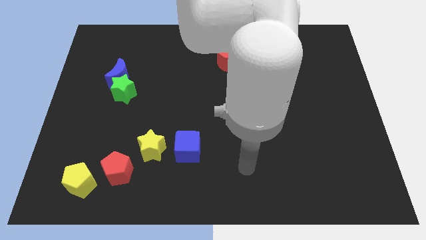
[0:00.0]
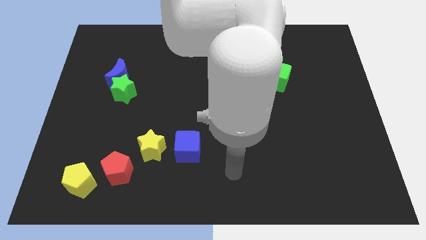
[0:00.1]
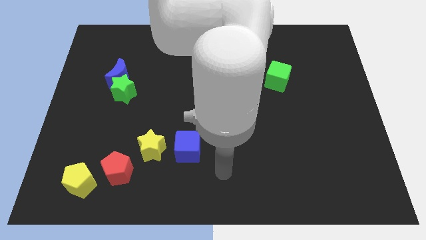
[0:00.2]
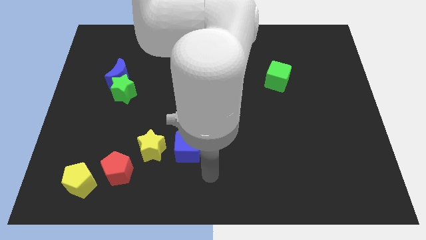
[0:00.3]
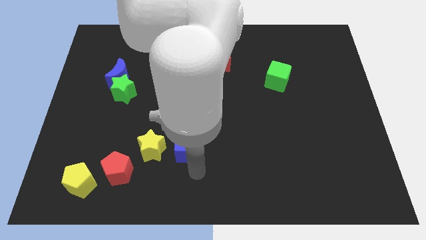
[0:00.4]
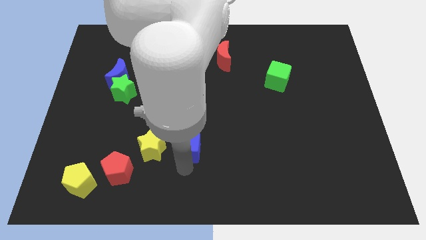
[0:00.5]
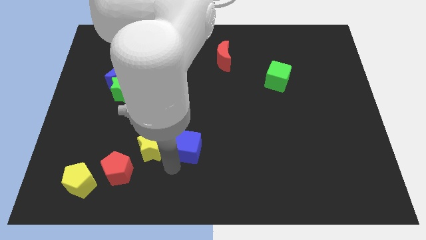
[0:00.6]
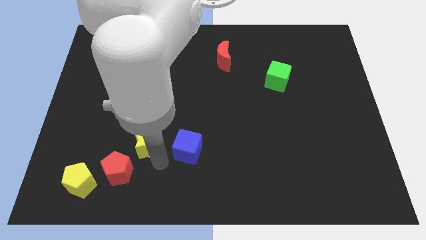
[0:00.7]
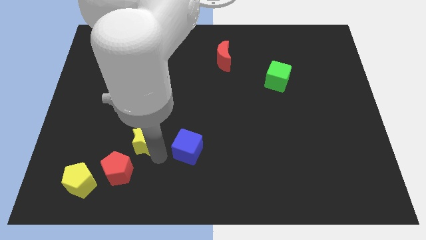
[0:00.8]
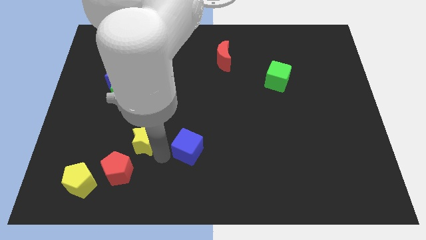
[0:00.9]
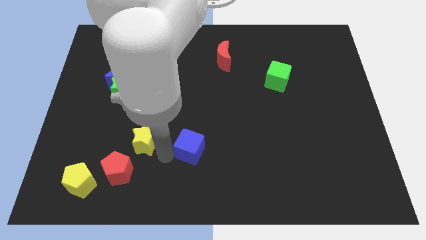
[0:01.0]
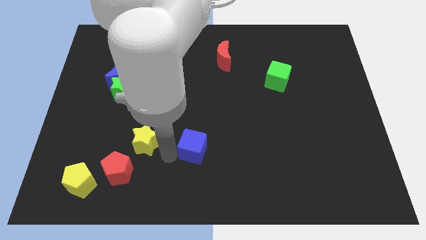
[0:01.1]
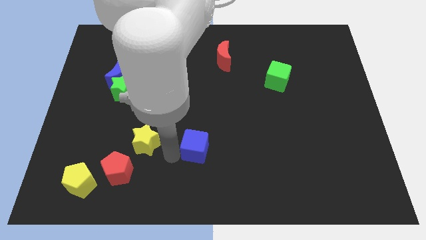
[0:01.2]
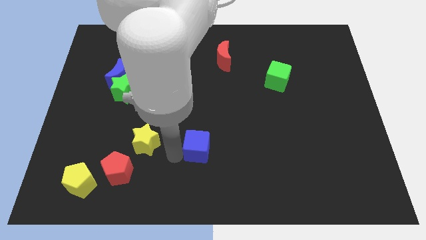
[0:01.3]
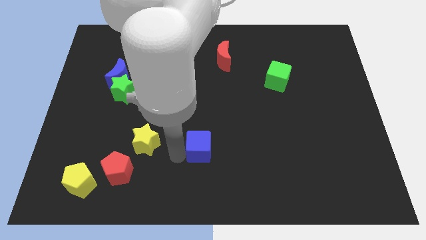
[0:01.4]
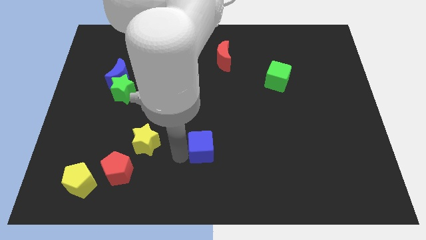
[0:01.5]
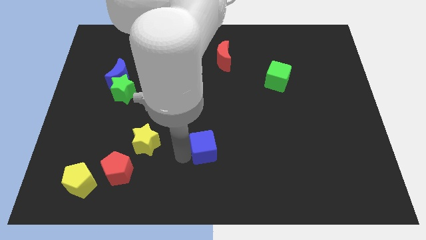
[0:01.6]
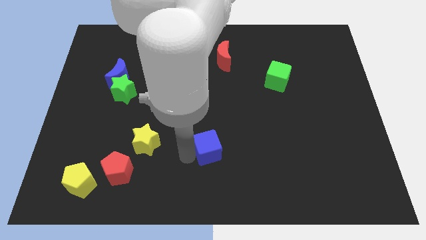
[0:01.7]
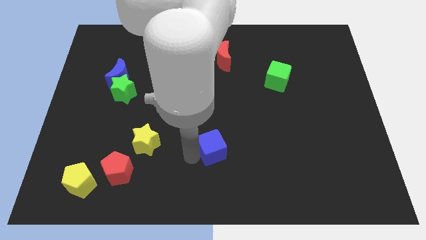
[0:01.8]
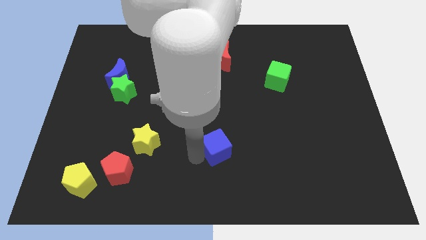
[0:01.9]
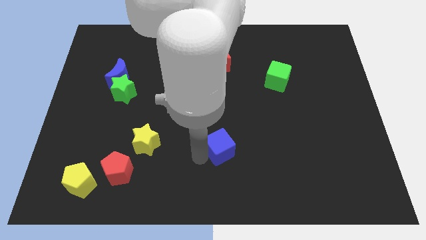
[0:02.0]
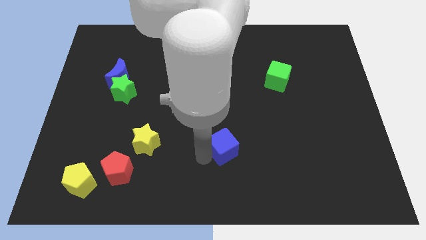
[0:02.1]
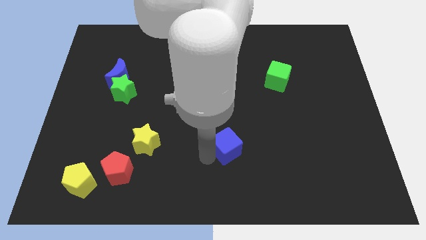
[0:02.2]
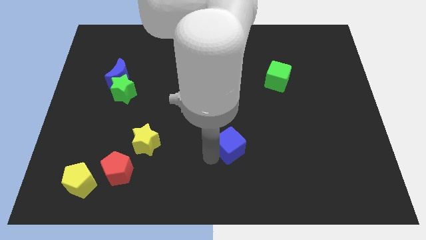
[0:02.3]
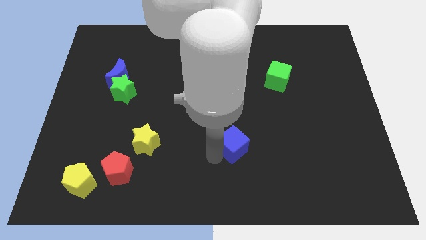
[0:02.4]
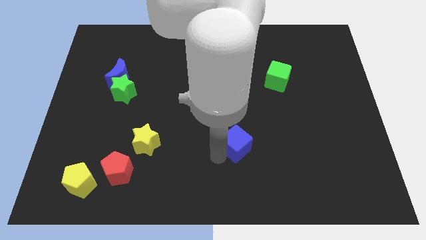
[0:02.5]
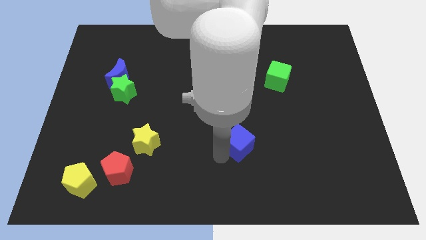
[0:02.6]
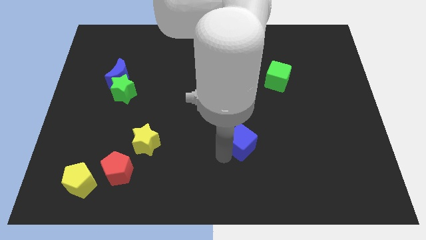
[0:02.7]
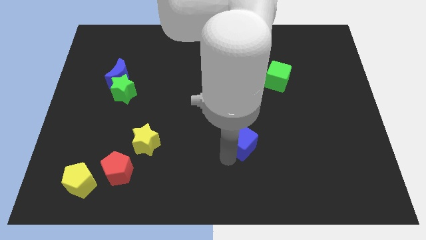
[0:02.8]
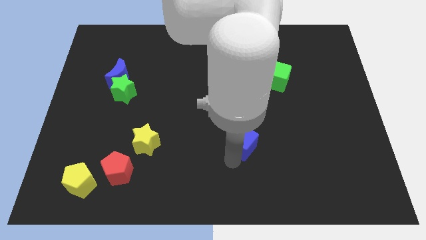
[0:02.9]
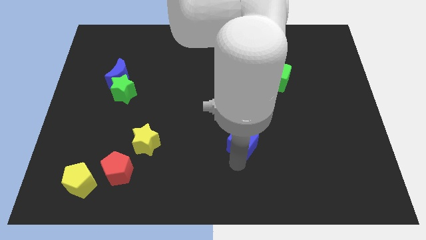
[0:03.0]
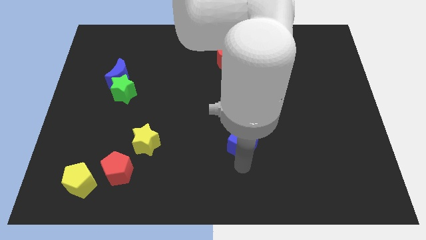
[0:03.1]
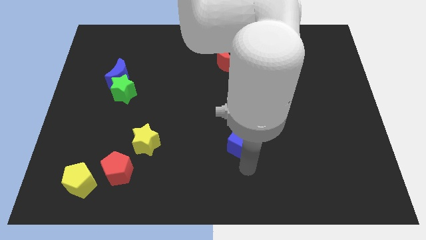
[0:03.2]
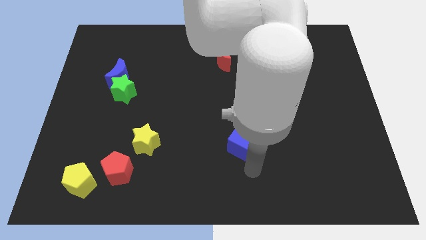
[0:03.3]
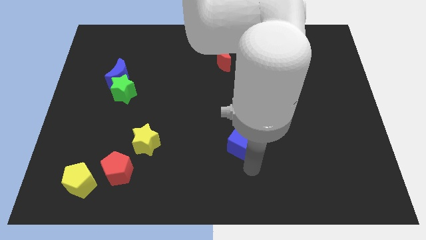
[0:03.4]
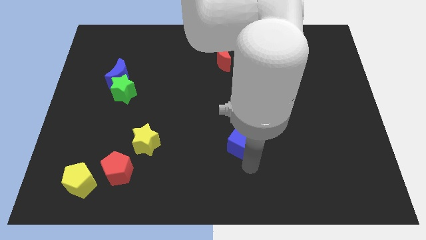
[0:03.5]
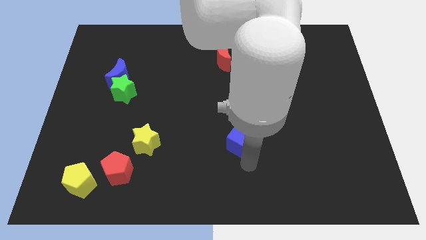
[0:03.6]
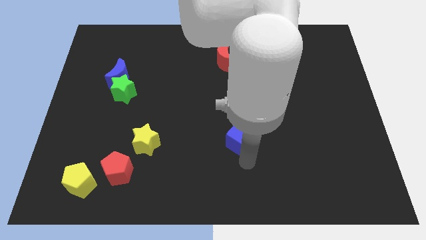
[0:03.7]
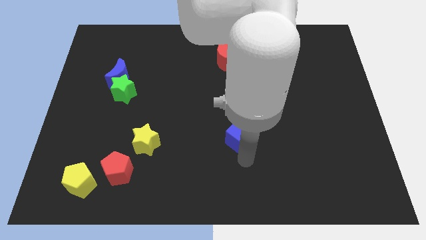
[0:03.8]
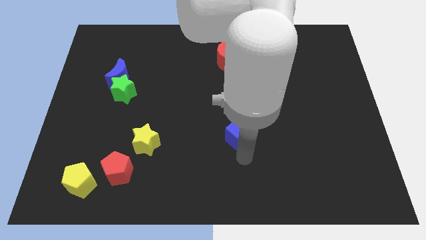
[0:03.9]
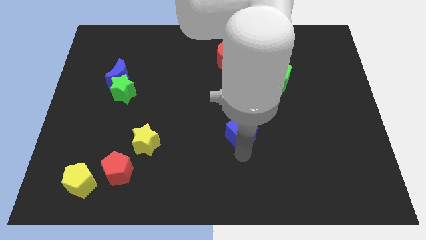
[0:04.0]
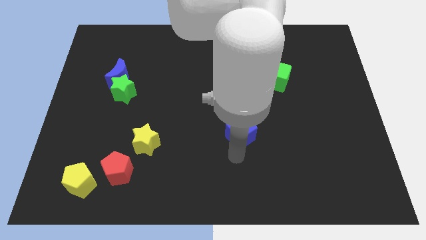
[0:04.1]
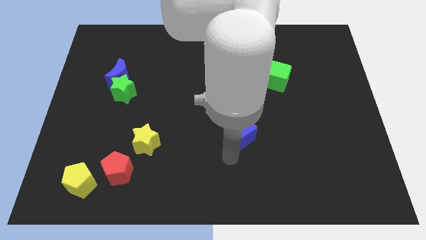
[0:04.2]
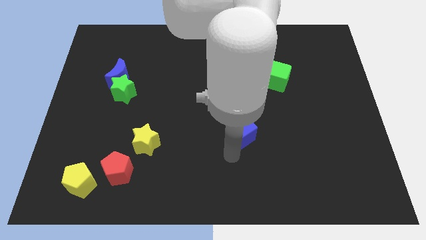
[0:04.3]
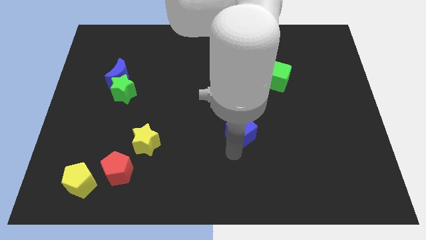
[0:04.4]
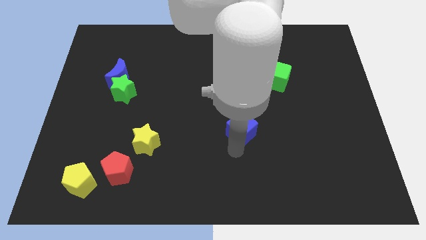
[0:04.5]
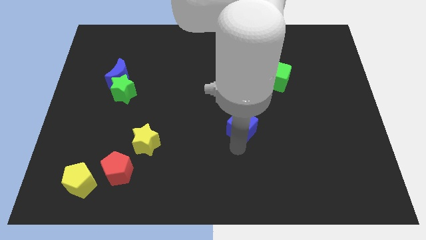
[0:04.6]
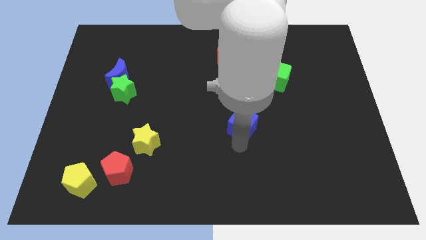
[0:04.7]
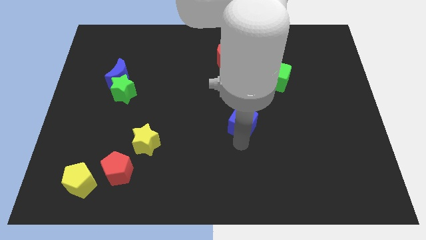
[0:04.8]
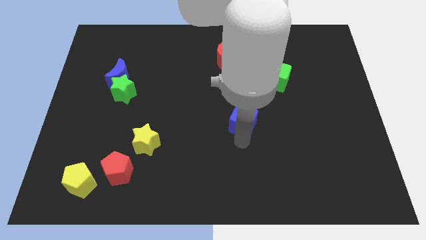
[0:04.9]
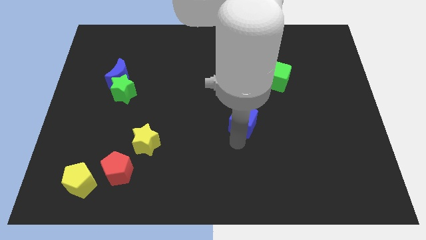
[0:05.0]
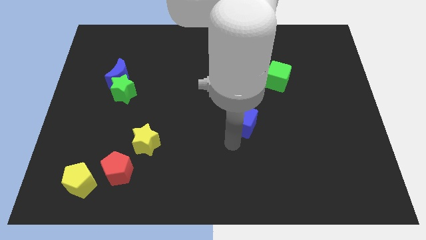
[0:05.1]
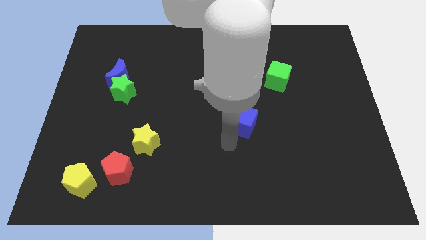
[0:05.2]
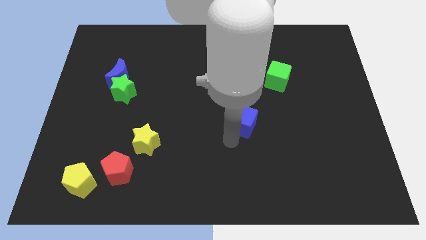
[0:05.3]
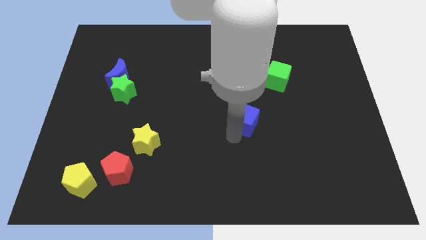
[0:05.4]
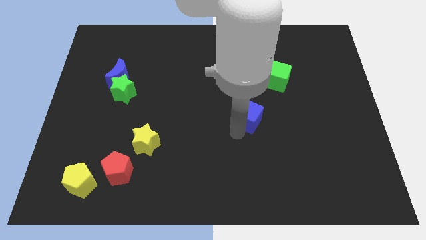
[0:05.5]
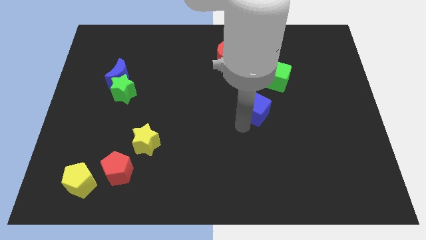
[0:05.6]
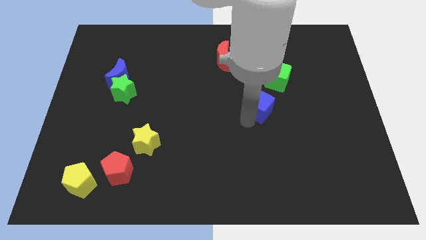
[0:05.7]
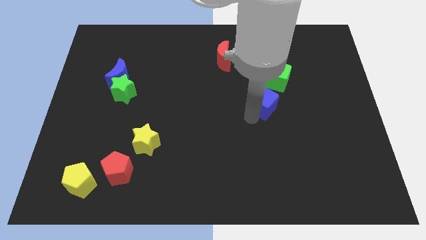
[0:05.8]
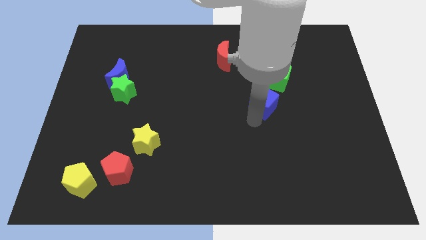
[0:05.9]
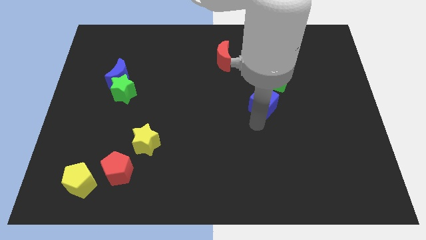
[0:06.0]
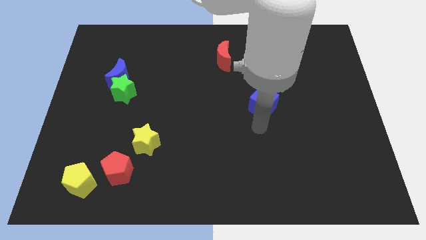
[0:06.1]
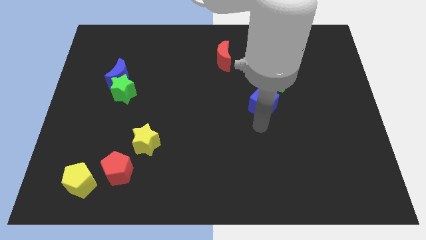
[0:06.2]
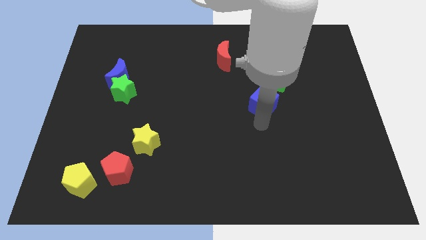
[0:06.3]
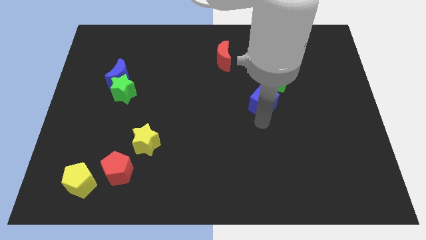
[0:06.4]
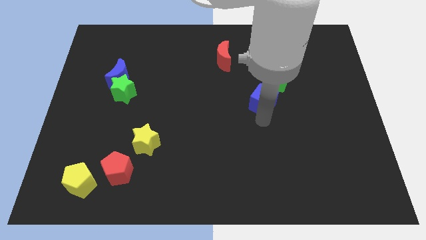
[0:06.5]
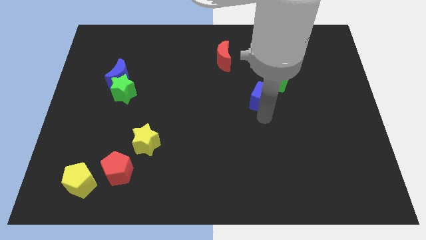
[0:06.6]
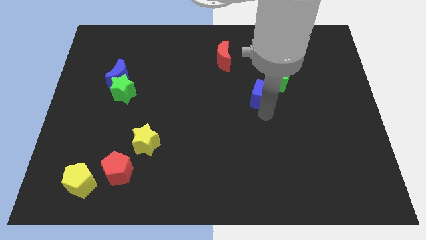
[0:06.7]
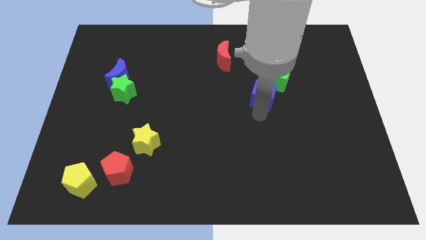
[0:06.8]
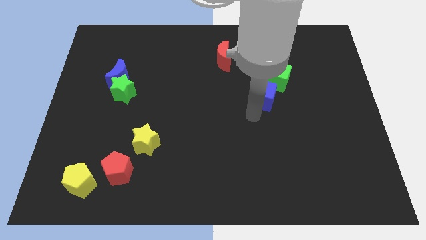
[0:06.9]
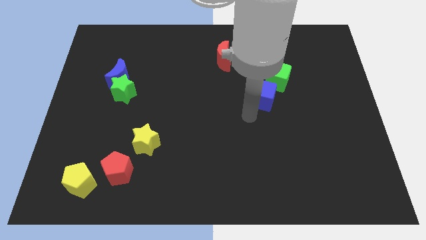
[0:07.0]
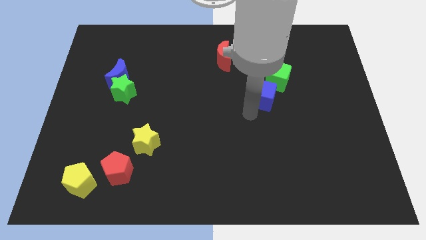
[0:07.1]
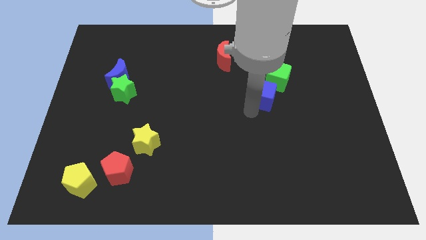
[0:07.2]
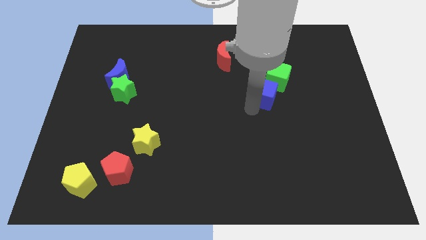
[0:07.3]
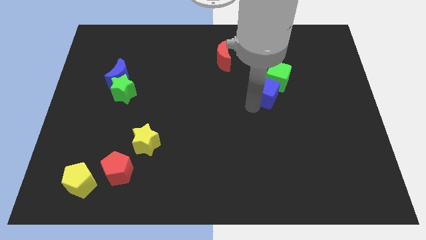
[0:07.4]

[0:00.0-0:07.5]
slide the blue cube towards the green cube
